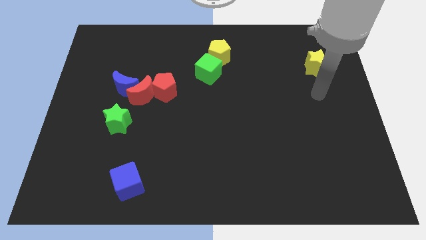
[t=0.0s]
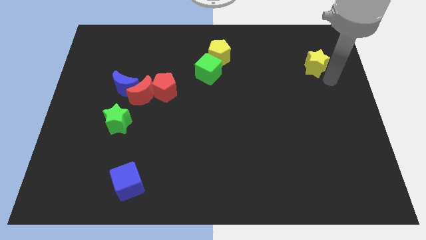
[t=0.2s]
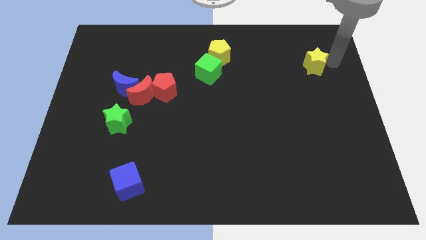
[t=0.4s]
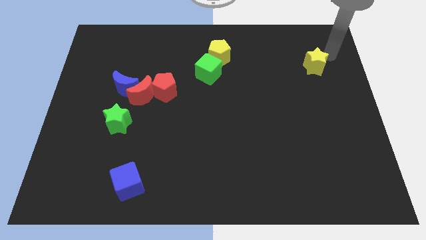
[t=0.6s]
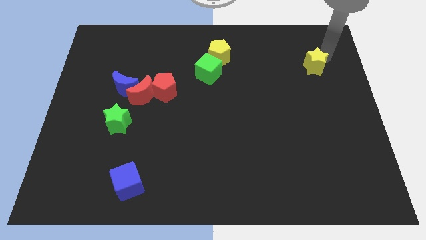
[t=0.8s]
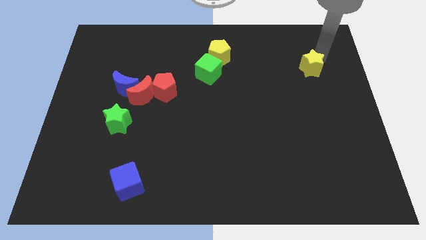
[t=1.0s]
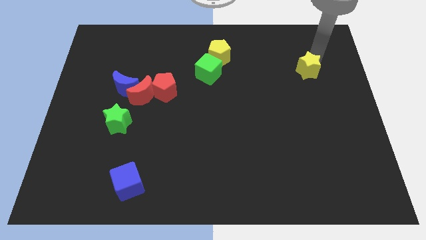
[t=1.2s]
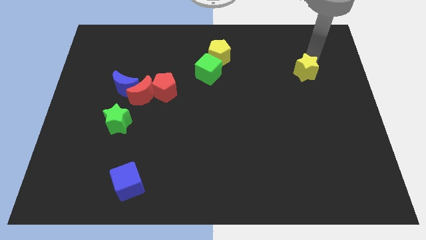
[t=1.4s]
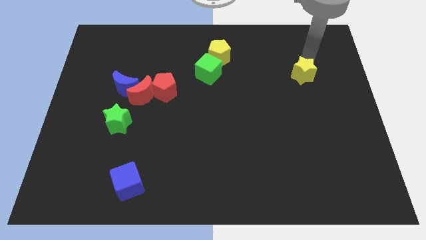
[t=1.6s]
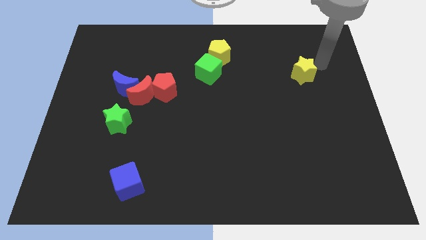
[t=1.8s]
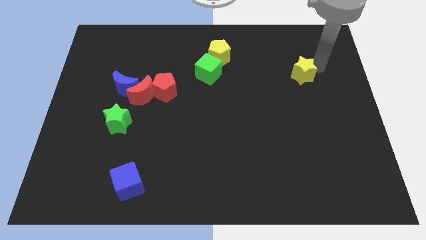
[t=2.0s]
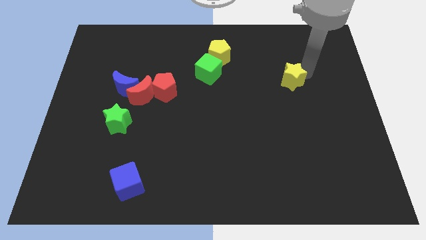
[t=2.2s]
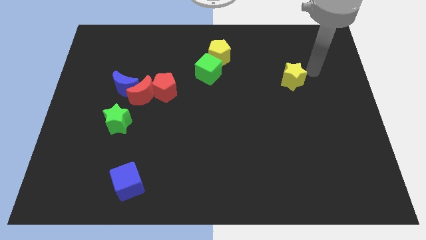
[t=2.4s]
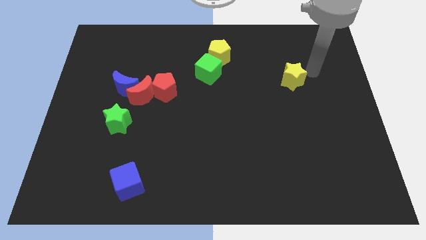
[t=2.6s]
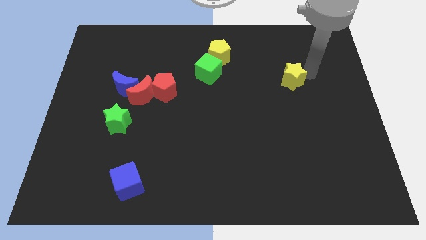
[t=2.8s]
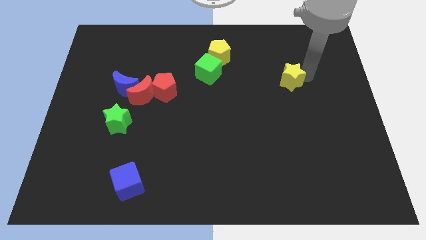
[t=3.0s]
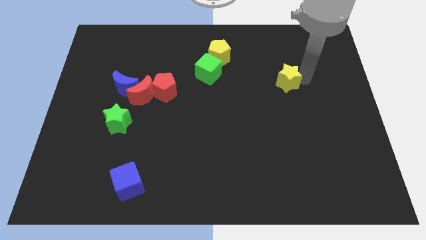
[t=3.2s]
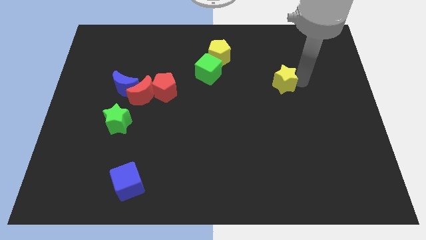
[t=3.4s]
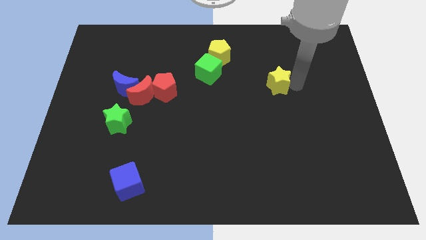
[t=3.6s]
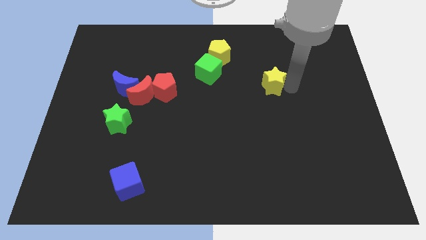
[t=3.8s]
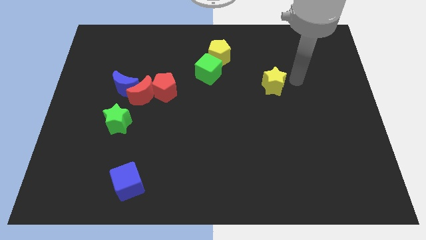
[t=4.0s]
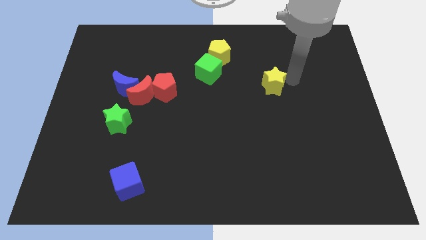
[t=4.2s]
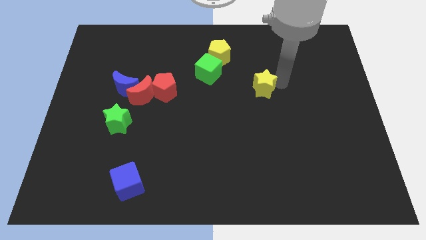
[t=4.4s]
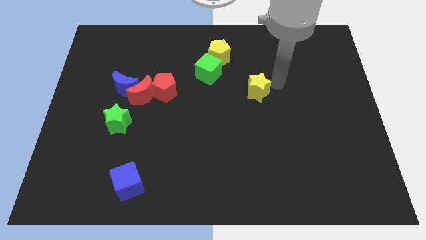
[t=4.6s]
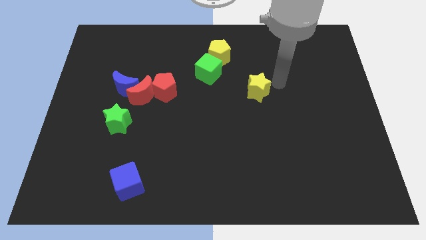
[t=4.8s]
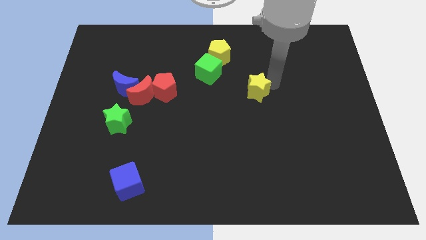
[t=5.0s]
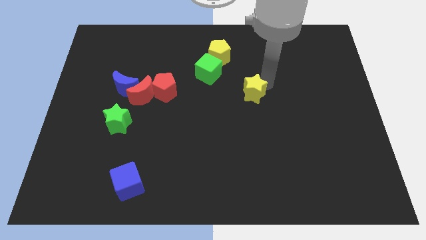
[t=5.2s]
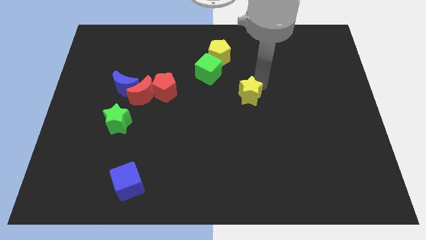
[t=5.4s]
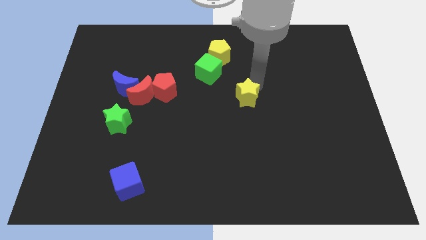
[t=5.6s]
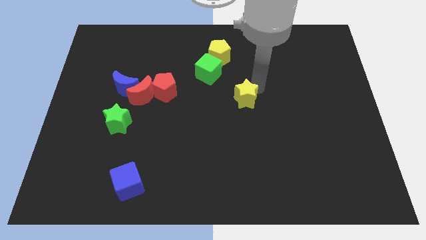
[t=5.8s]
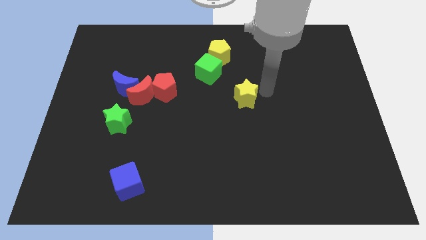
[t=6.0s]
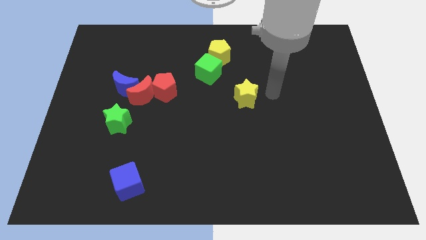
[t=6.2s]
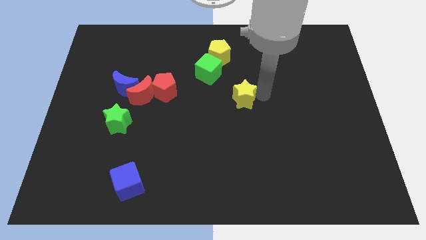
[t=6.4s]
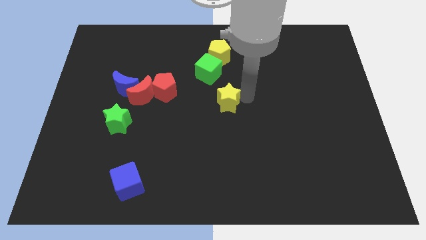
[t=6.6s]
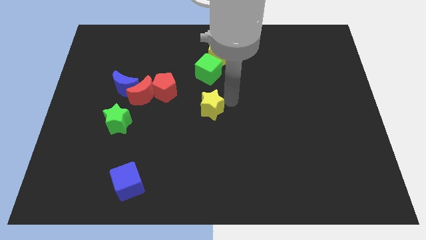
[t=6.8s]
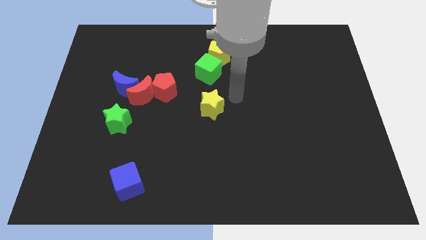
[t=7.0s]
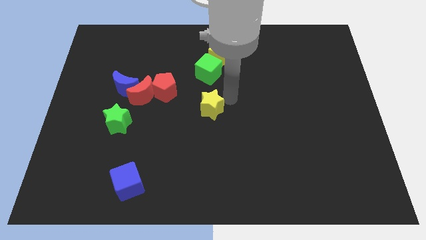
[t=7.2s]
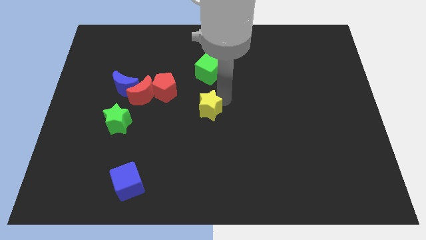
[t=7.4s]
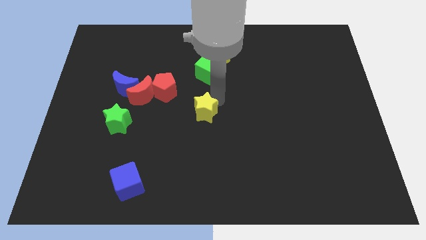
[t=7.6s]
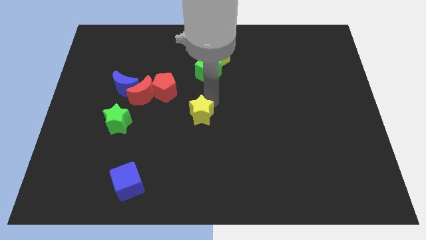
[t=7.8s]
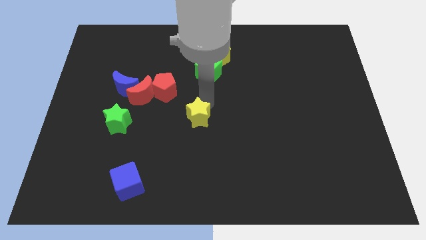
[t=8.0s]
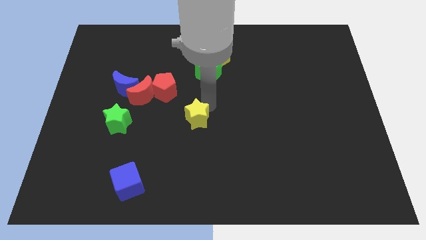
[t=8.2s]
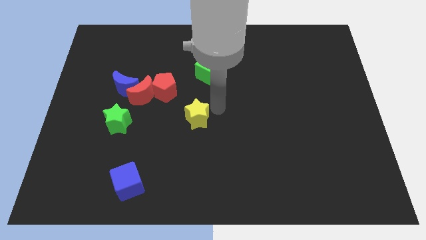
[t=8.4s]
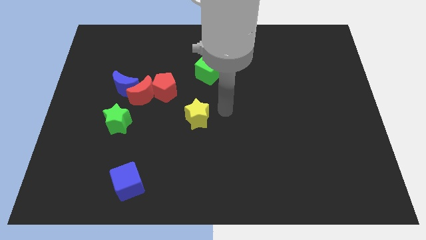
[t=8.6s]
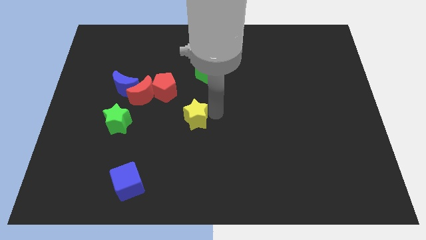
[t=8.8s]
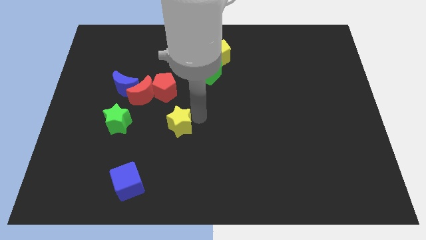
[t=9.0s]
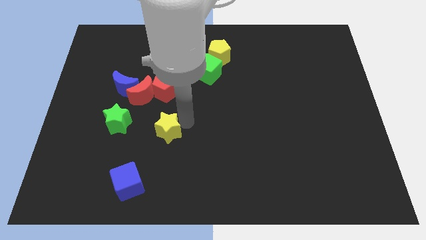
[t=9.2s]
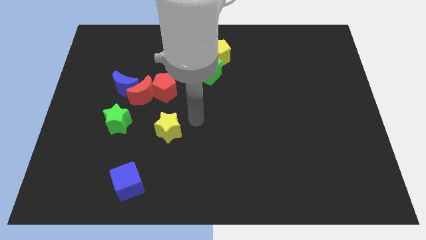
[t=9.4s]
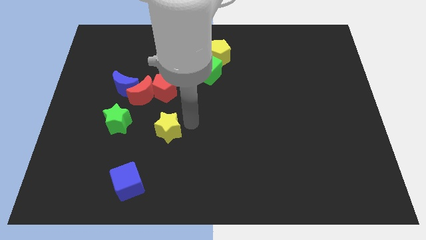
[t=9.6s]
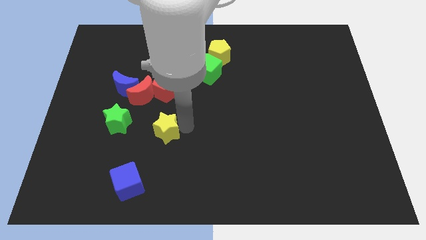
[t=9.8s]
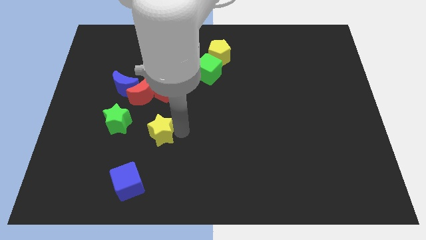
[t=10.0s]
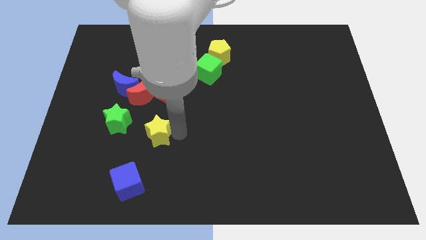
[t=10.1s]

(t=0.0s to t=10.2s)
slide the yellow star to the bottom right of the green star

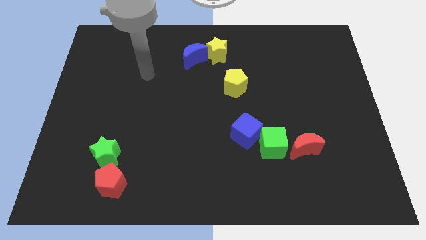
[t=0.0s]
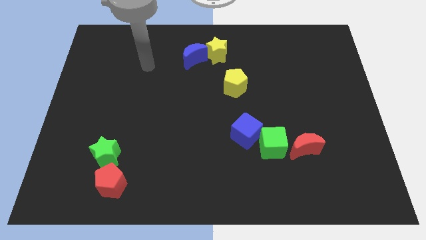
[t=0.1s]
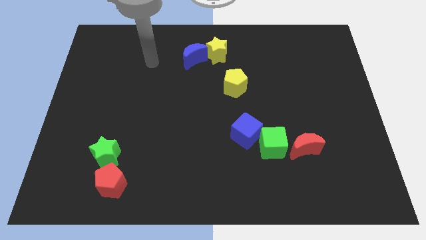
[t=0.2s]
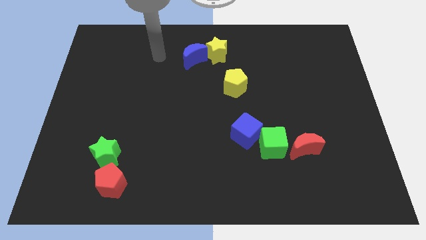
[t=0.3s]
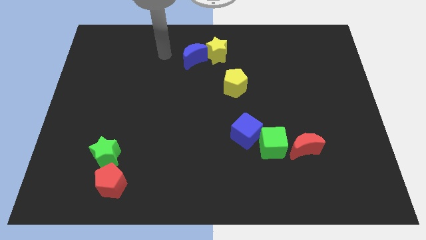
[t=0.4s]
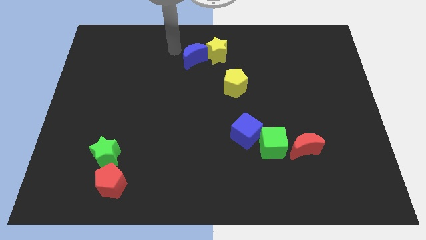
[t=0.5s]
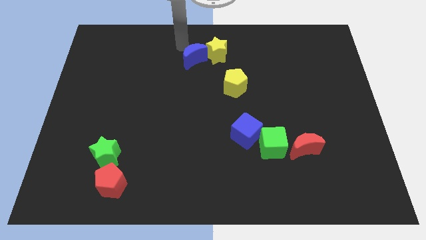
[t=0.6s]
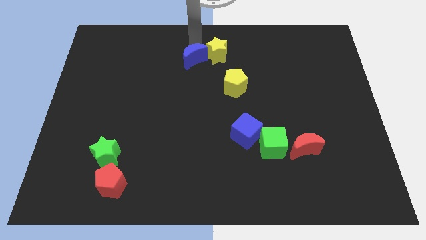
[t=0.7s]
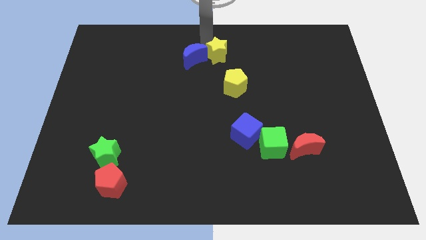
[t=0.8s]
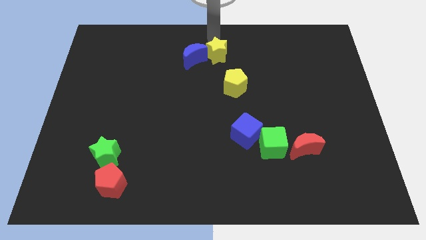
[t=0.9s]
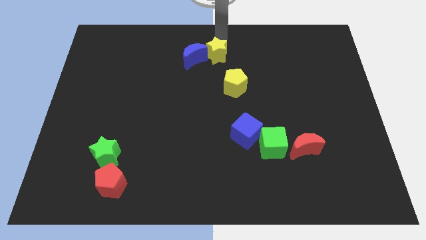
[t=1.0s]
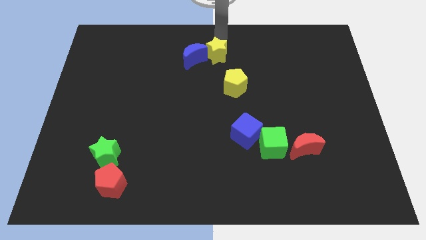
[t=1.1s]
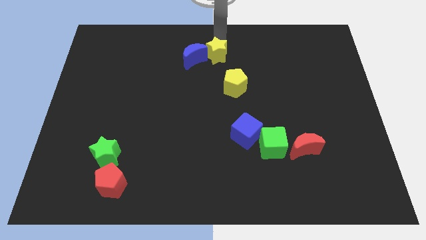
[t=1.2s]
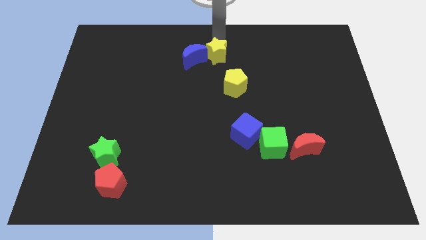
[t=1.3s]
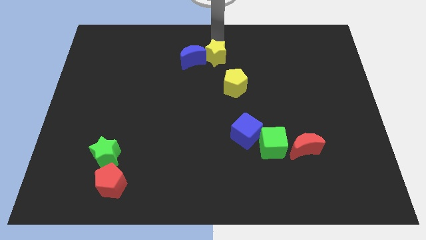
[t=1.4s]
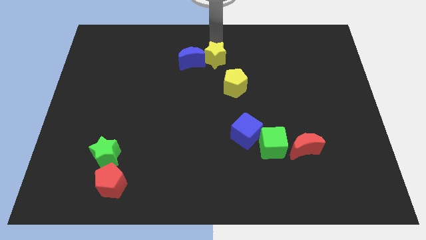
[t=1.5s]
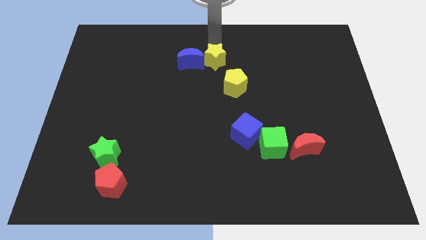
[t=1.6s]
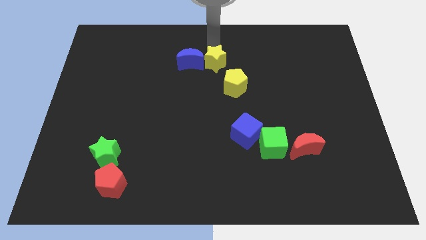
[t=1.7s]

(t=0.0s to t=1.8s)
slide the yellow star to the bottom right of the blue moon
